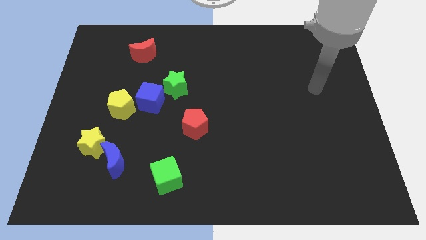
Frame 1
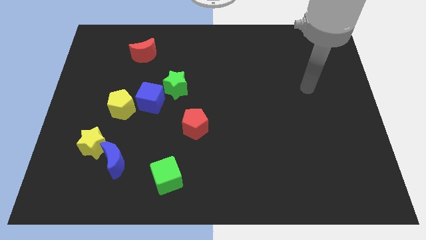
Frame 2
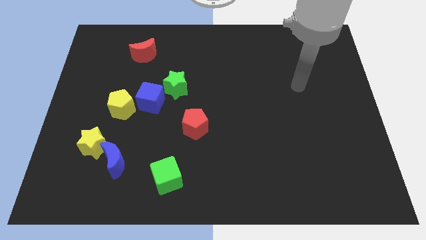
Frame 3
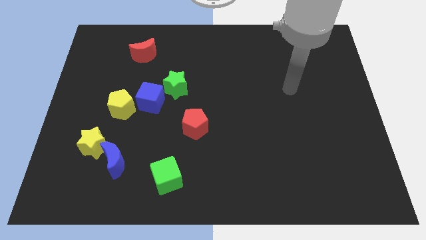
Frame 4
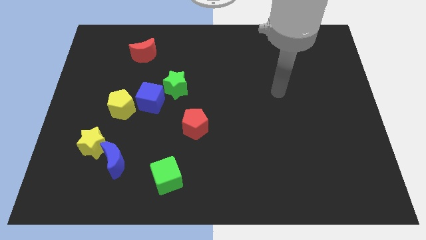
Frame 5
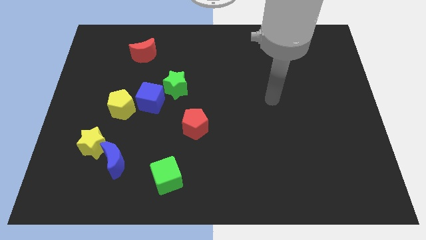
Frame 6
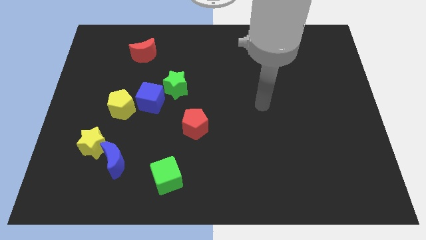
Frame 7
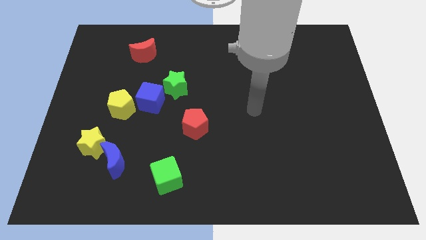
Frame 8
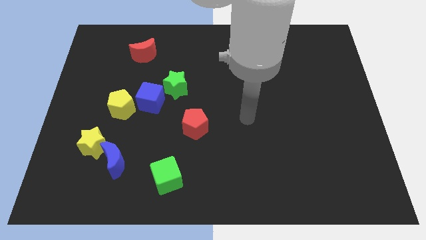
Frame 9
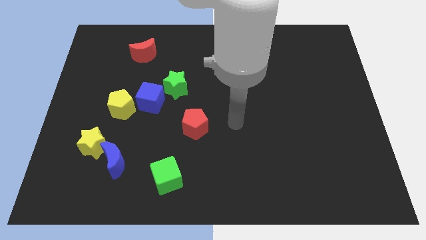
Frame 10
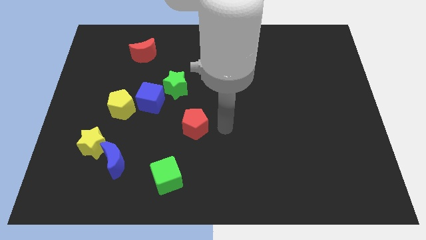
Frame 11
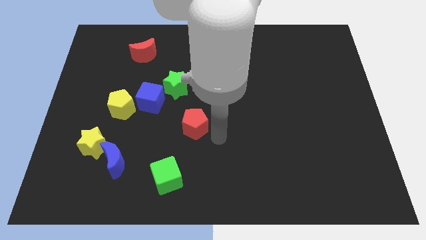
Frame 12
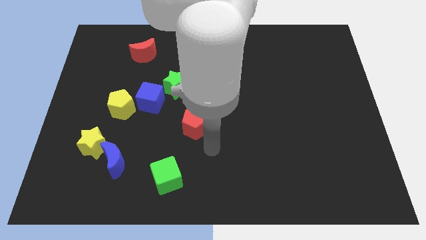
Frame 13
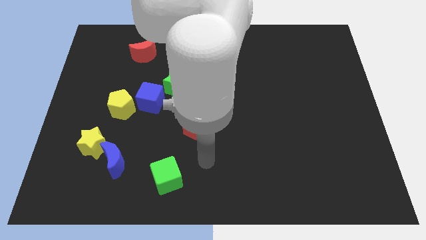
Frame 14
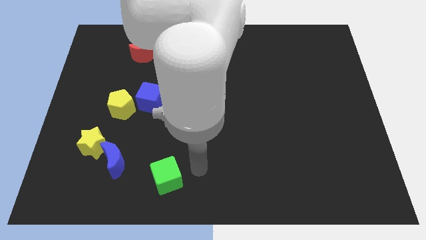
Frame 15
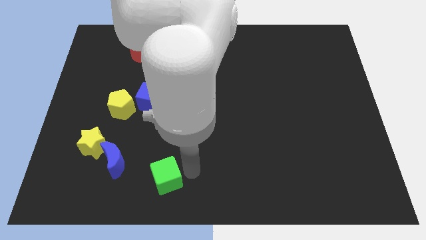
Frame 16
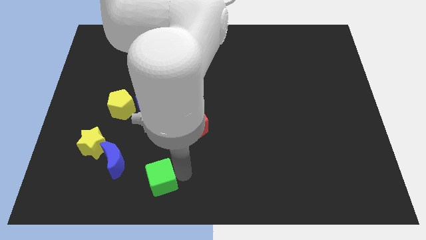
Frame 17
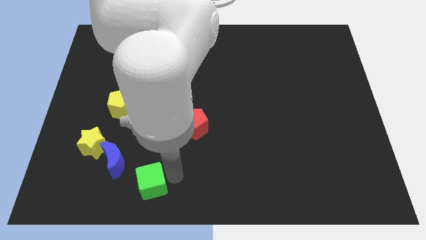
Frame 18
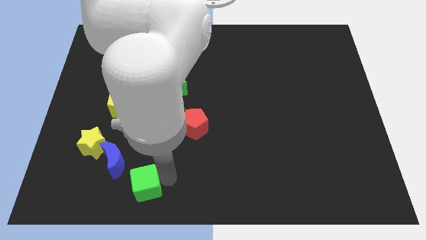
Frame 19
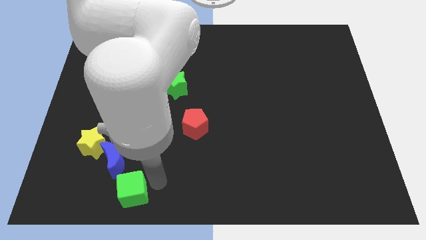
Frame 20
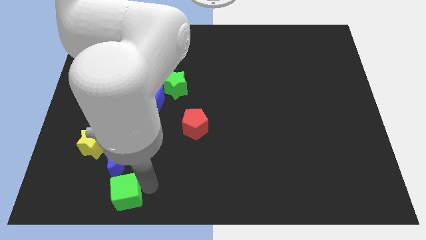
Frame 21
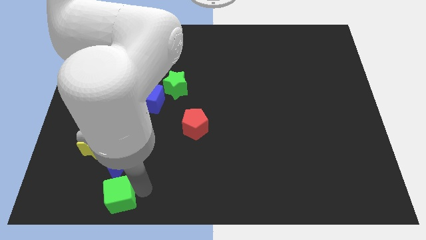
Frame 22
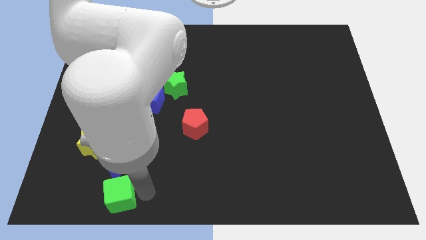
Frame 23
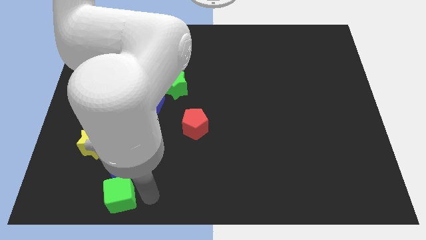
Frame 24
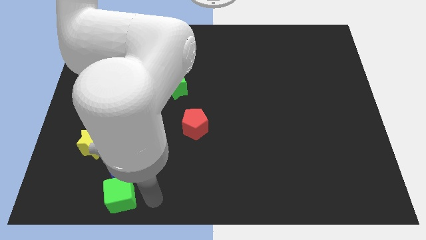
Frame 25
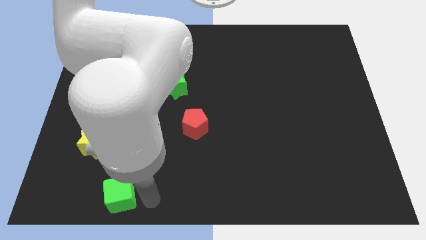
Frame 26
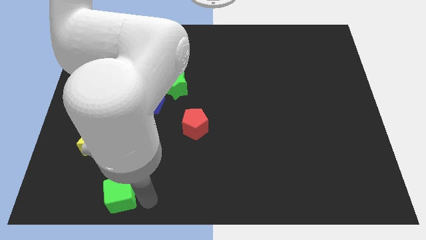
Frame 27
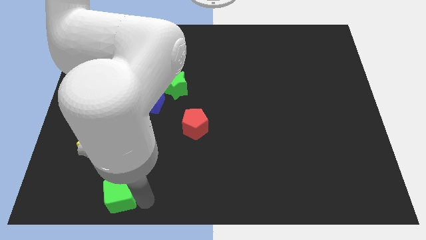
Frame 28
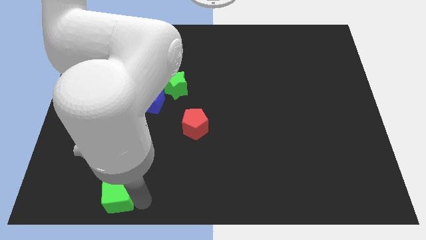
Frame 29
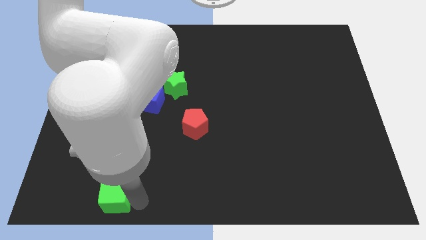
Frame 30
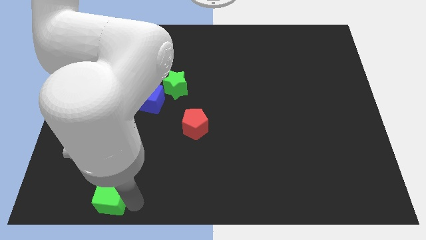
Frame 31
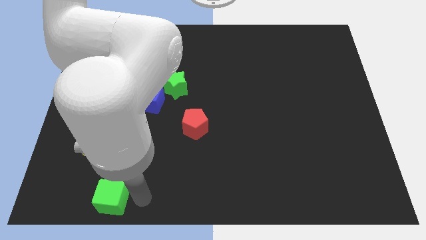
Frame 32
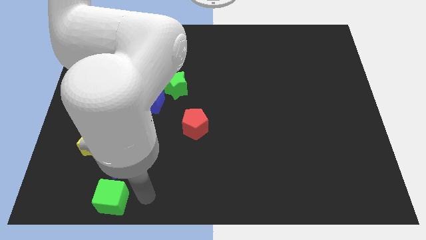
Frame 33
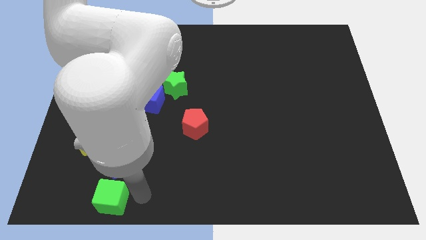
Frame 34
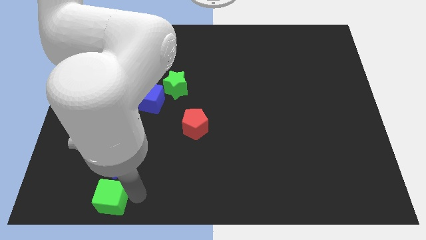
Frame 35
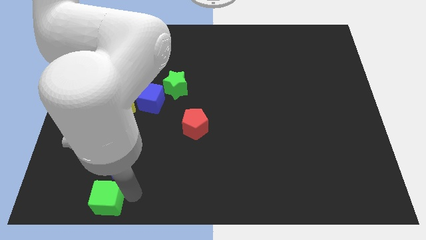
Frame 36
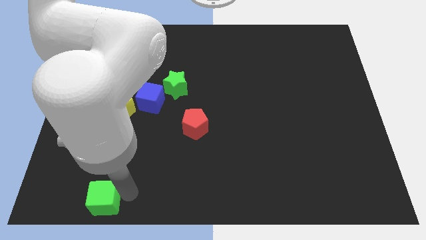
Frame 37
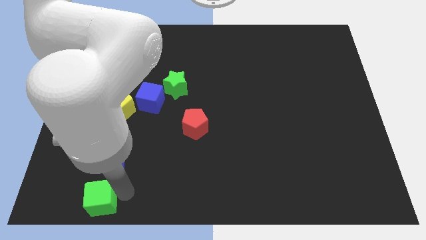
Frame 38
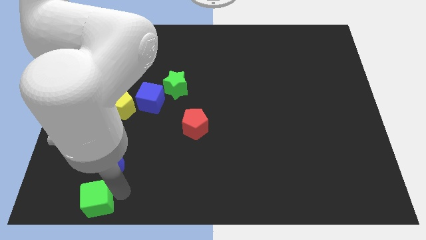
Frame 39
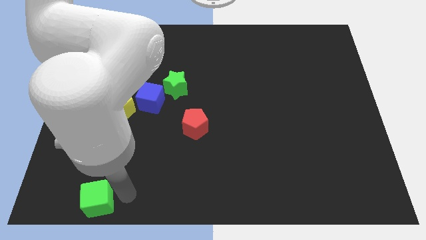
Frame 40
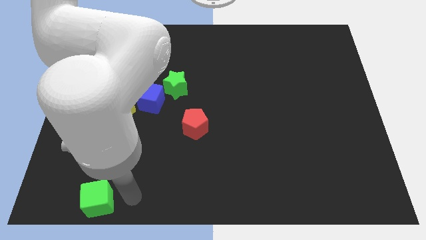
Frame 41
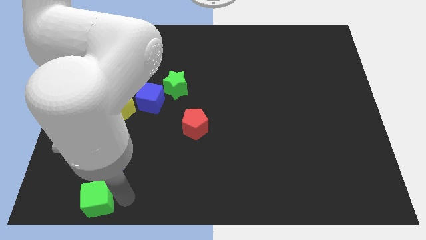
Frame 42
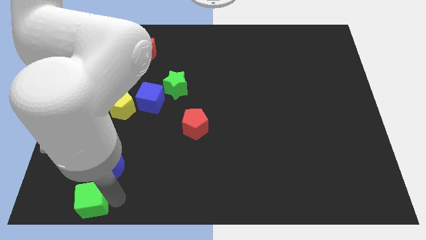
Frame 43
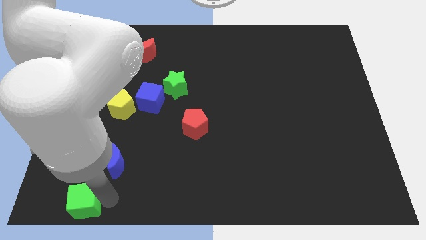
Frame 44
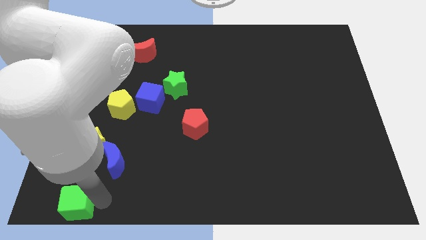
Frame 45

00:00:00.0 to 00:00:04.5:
move the green cube to the bottom left corner

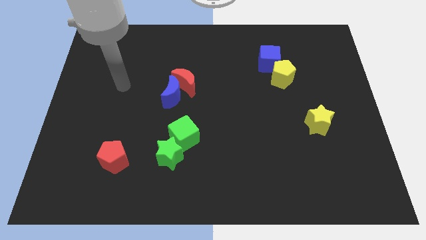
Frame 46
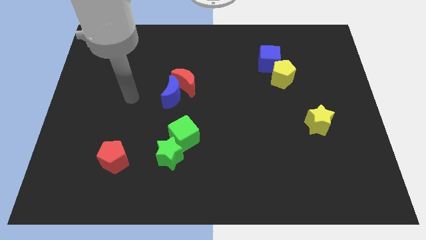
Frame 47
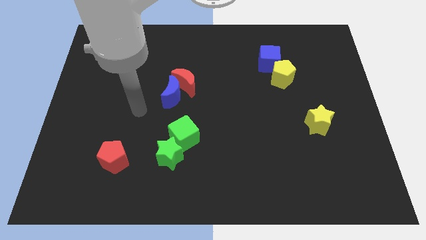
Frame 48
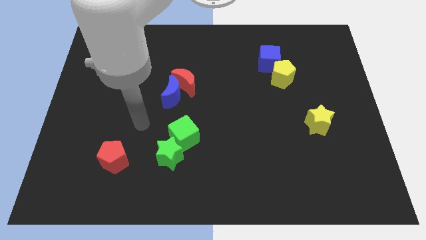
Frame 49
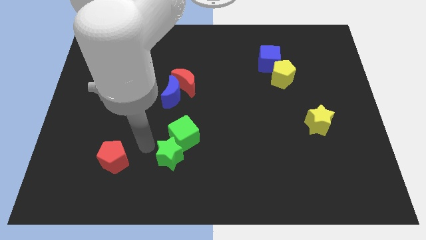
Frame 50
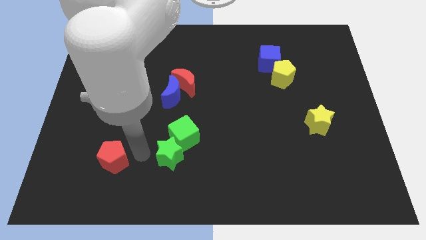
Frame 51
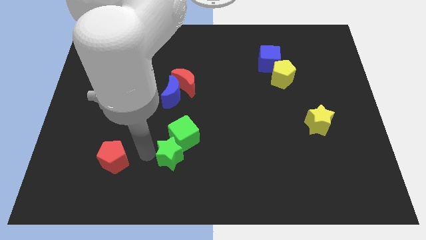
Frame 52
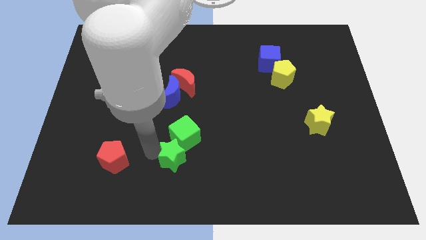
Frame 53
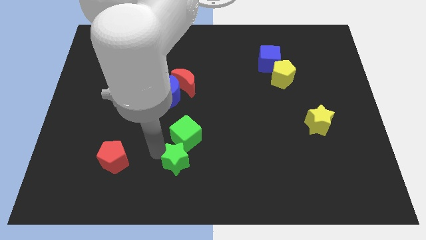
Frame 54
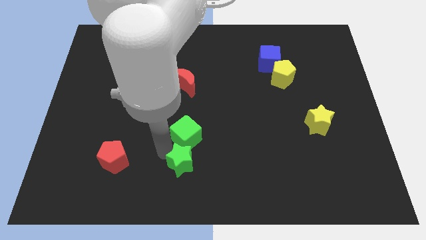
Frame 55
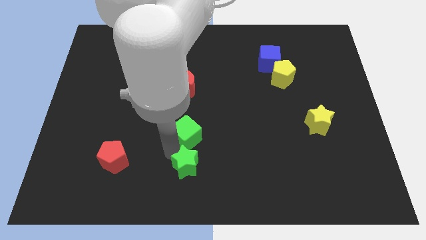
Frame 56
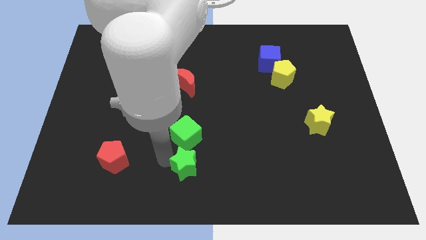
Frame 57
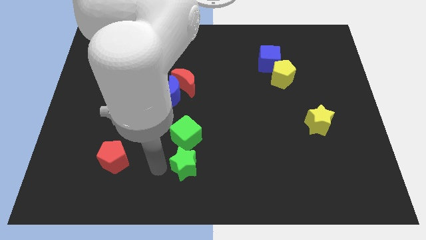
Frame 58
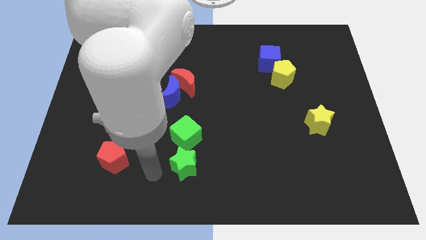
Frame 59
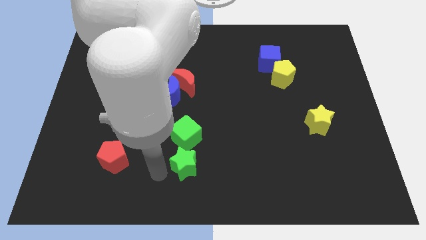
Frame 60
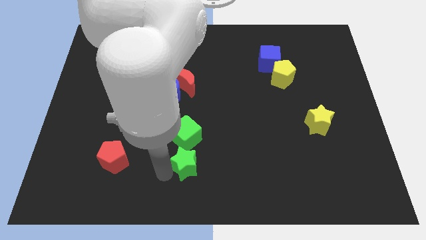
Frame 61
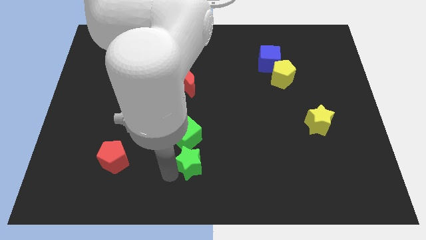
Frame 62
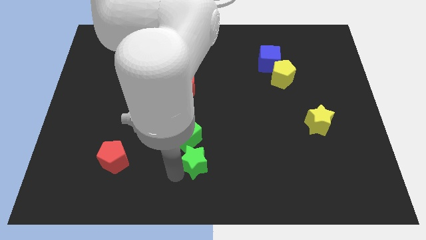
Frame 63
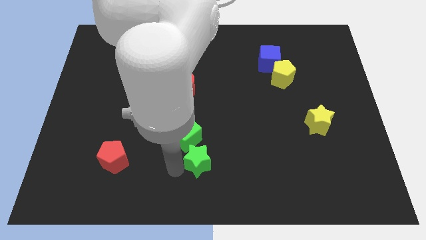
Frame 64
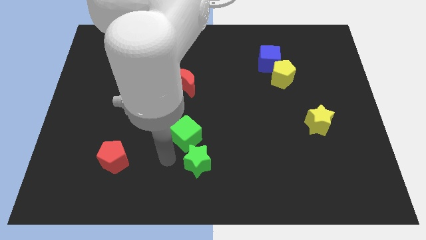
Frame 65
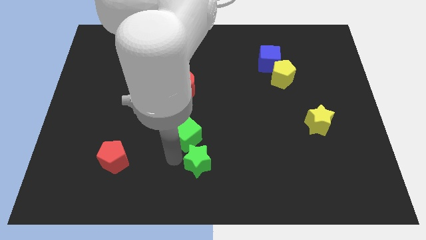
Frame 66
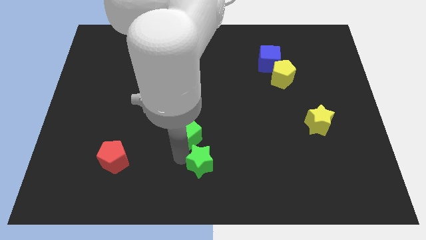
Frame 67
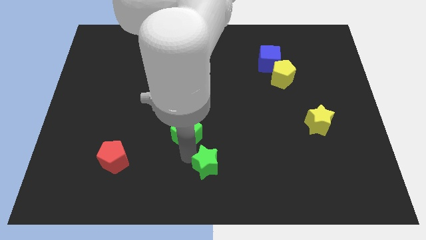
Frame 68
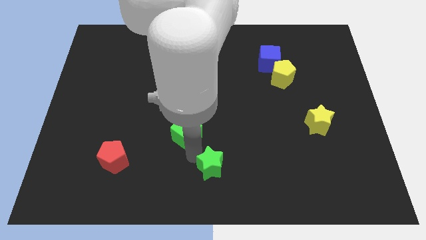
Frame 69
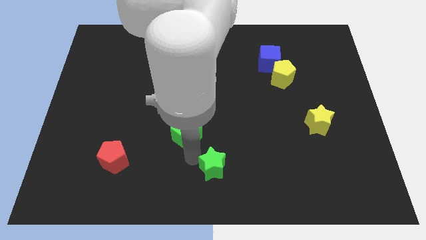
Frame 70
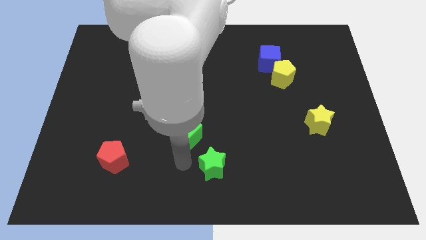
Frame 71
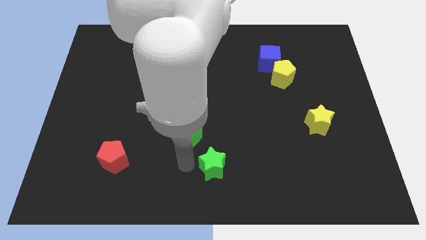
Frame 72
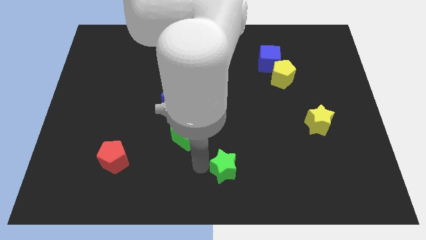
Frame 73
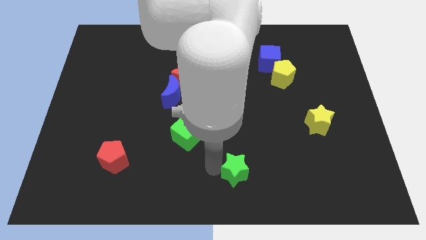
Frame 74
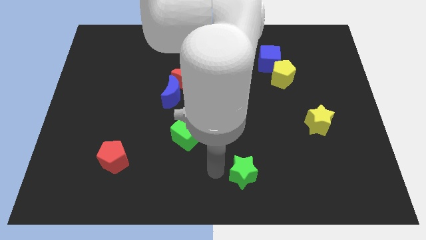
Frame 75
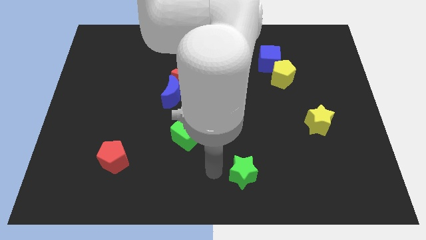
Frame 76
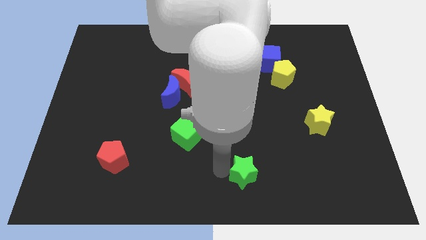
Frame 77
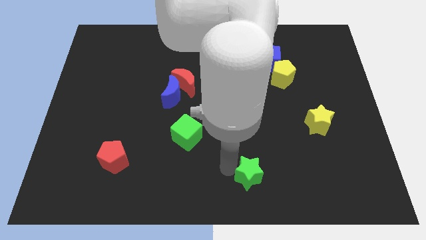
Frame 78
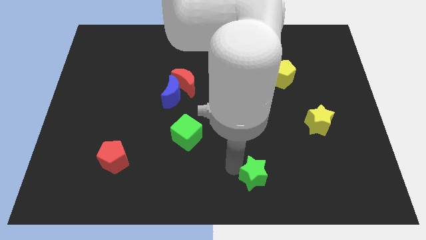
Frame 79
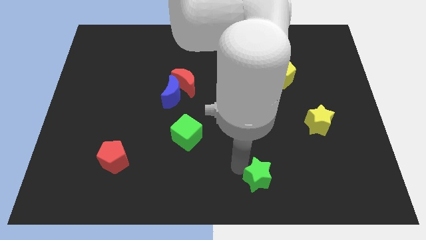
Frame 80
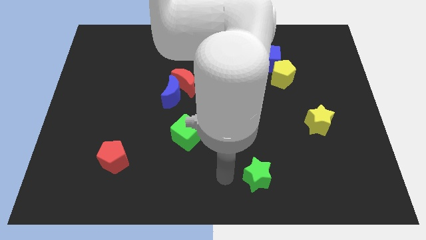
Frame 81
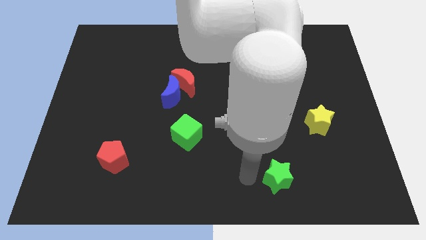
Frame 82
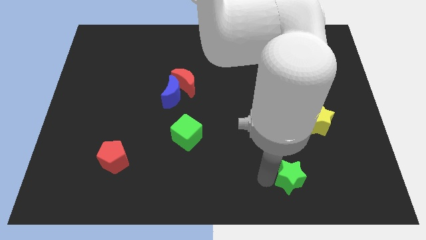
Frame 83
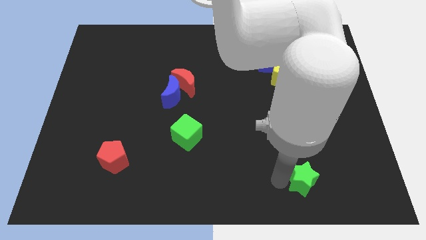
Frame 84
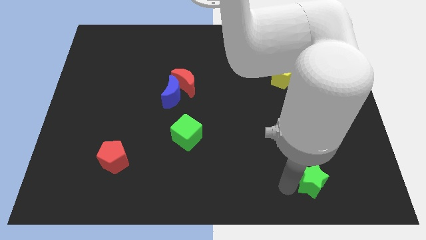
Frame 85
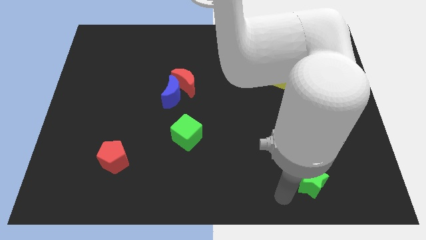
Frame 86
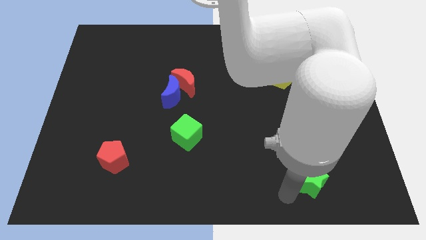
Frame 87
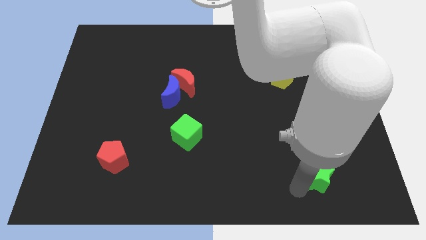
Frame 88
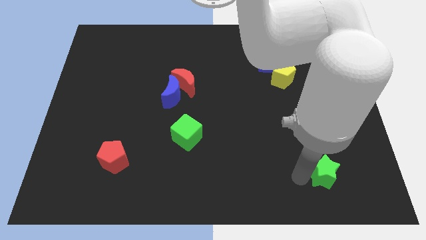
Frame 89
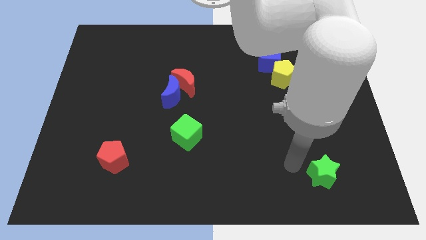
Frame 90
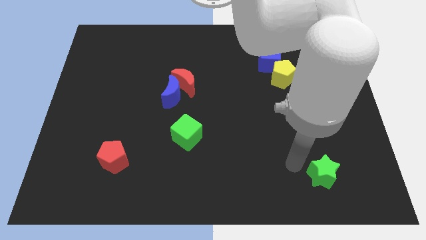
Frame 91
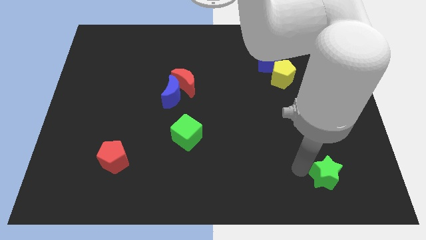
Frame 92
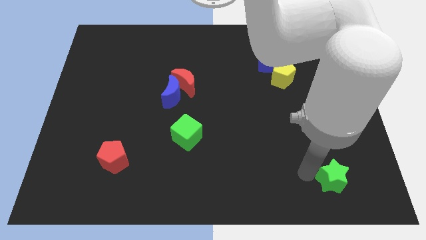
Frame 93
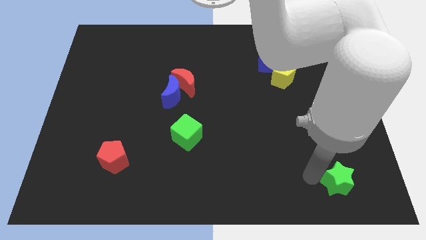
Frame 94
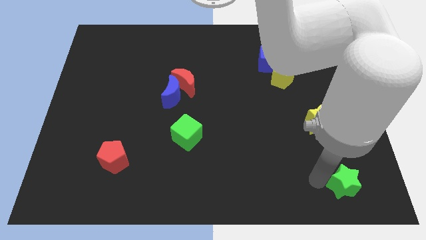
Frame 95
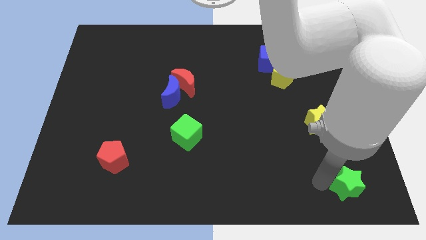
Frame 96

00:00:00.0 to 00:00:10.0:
slide the green star to the bottom right of the board
